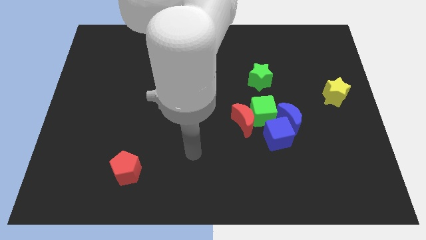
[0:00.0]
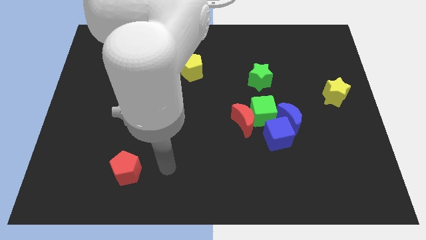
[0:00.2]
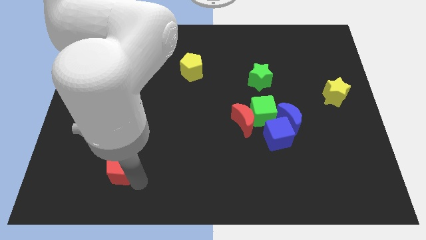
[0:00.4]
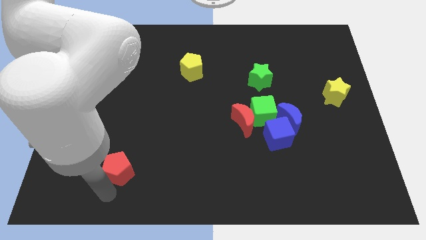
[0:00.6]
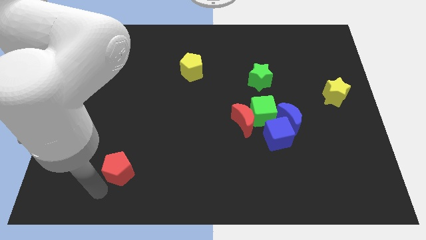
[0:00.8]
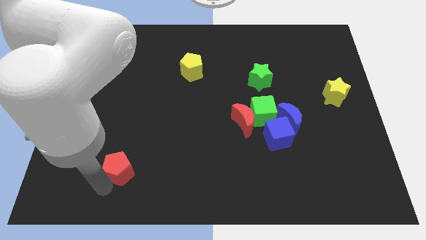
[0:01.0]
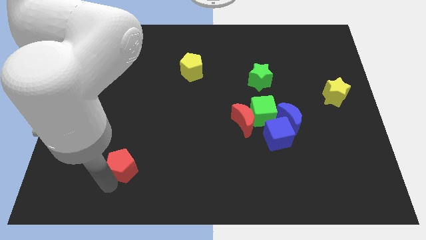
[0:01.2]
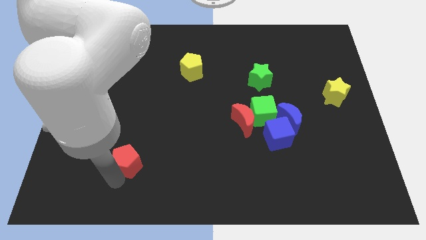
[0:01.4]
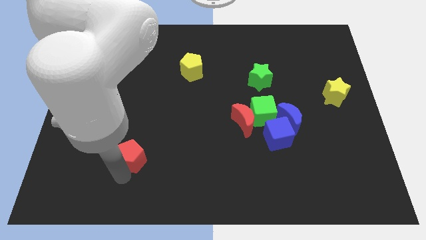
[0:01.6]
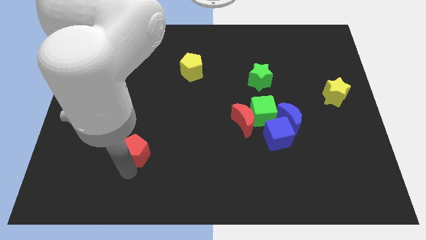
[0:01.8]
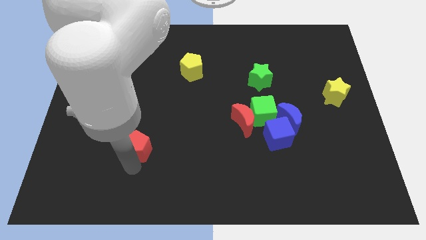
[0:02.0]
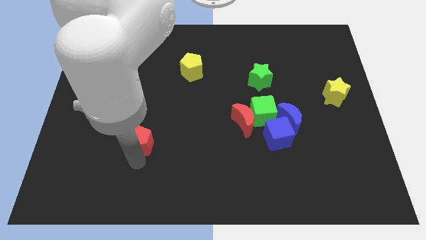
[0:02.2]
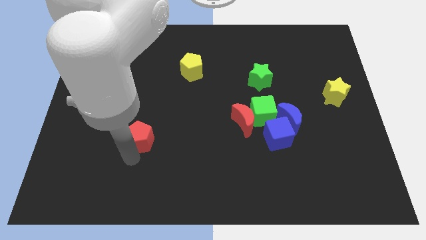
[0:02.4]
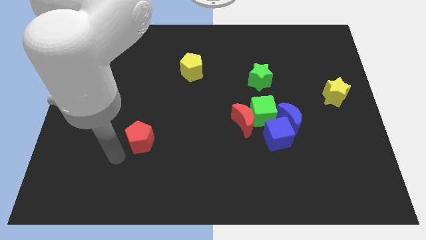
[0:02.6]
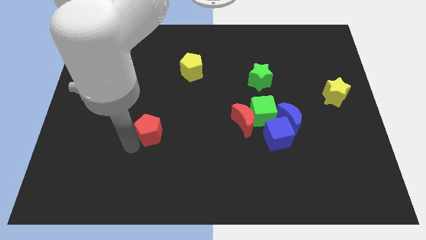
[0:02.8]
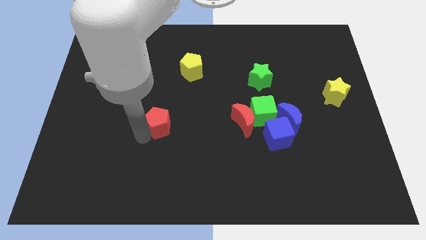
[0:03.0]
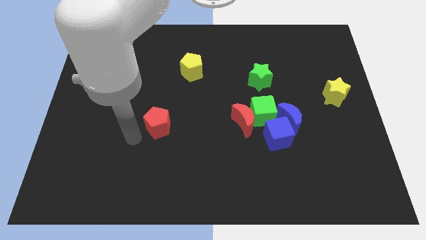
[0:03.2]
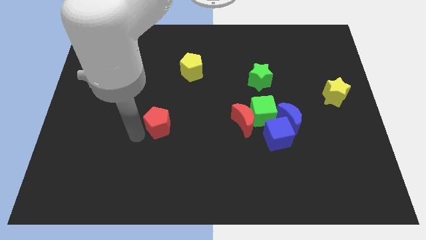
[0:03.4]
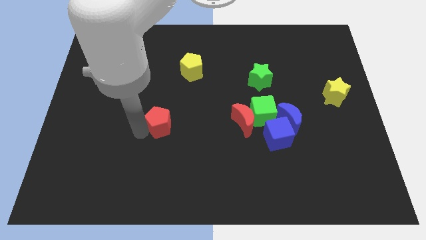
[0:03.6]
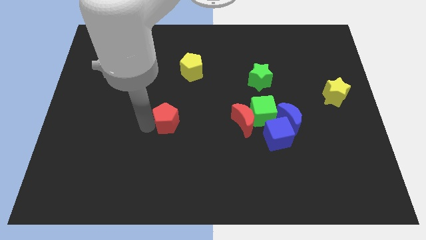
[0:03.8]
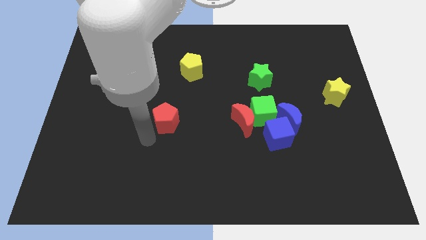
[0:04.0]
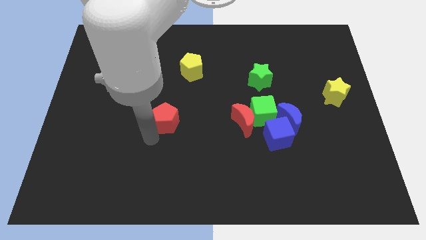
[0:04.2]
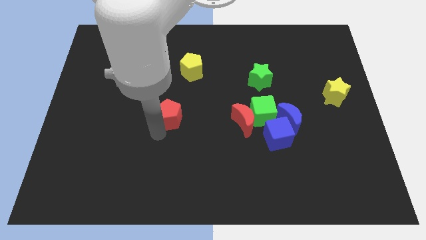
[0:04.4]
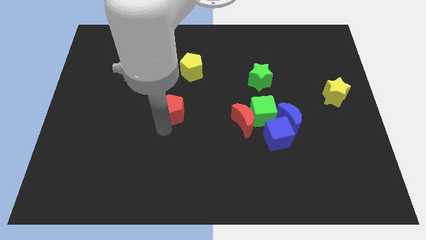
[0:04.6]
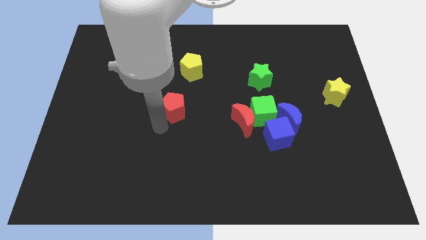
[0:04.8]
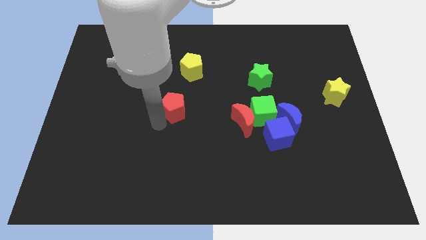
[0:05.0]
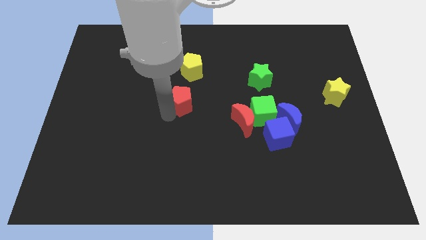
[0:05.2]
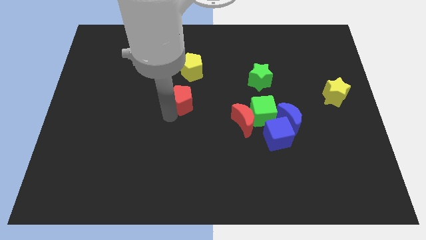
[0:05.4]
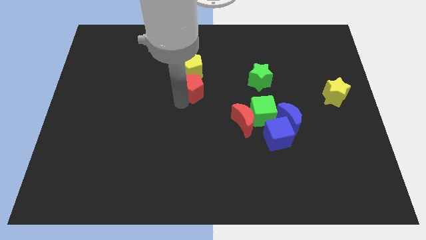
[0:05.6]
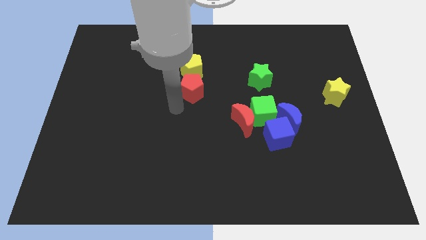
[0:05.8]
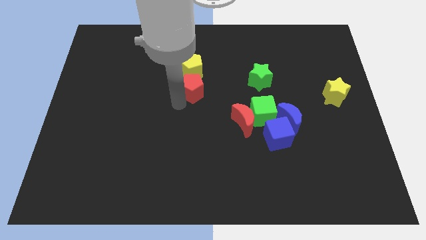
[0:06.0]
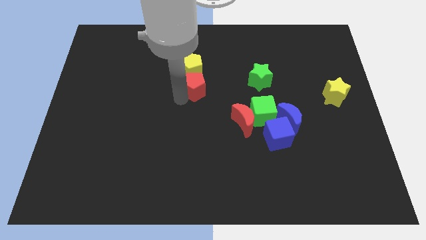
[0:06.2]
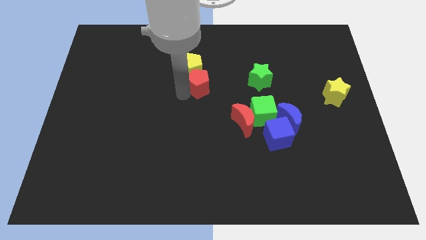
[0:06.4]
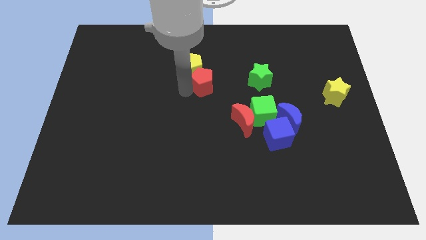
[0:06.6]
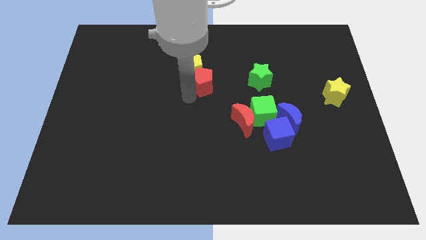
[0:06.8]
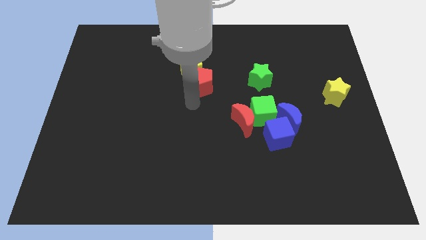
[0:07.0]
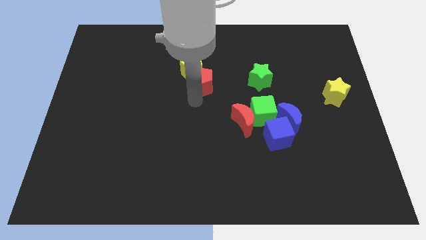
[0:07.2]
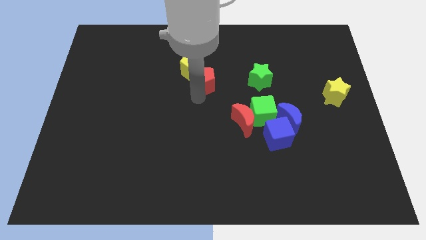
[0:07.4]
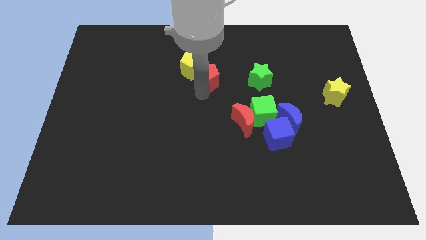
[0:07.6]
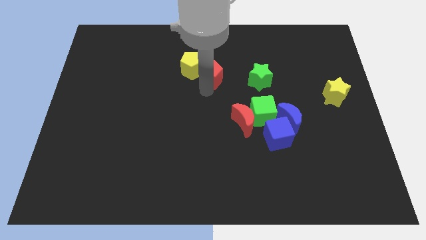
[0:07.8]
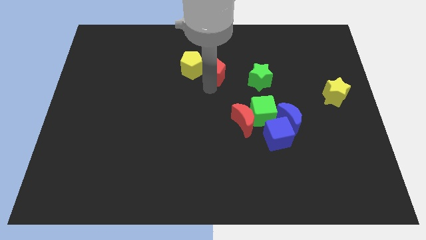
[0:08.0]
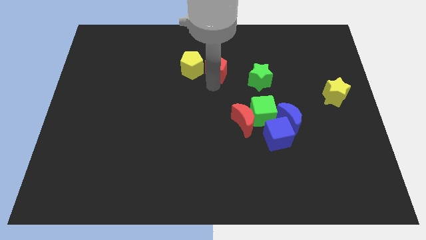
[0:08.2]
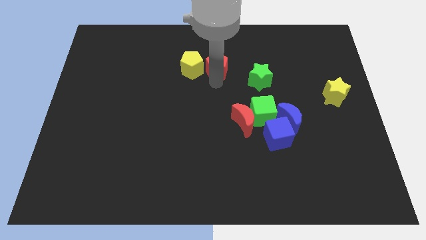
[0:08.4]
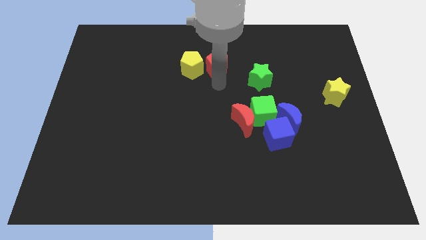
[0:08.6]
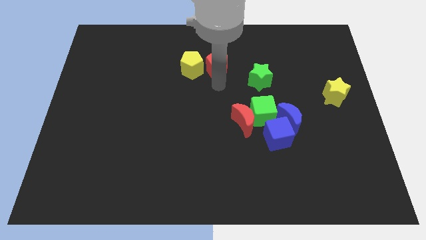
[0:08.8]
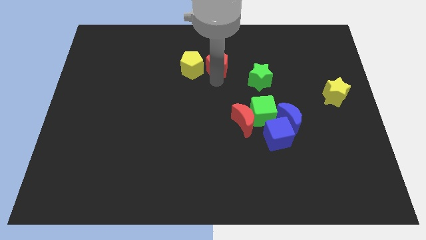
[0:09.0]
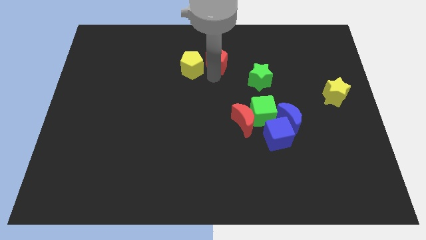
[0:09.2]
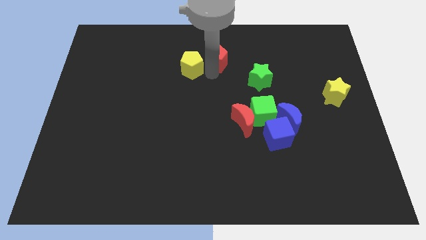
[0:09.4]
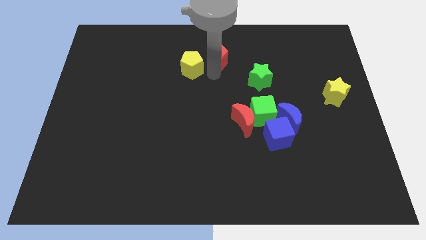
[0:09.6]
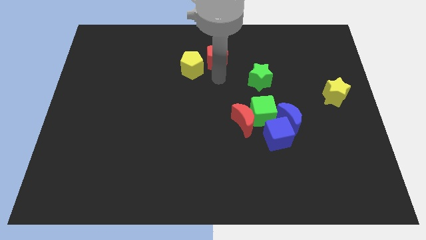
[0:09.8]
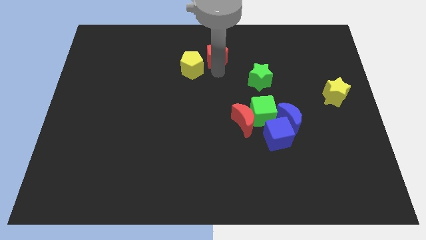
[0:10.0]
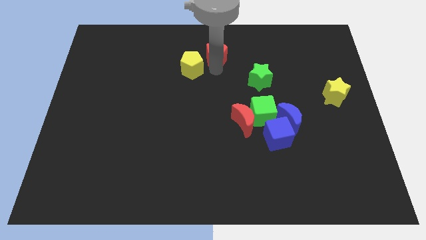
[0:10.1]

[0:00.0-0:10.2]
put the red pentagon to the towards your base

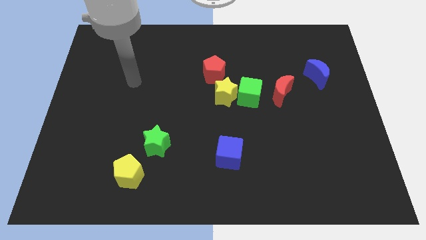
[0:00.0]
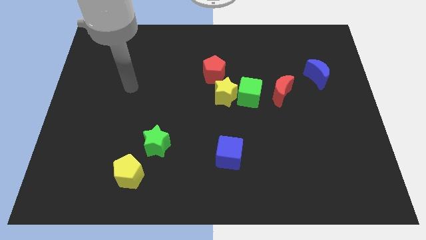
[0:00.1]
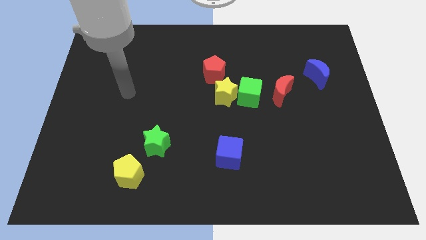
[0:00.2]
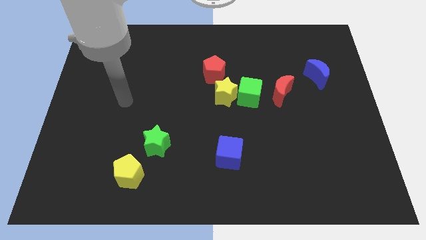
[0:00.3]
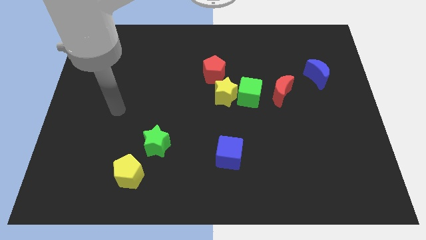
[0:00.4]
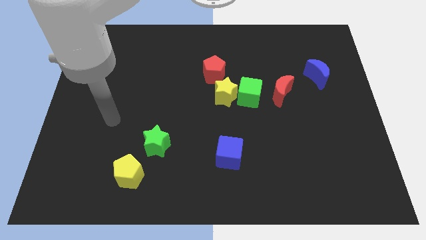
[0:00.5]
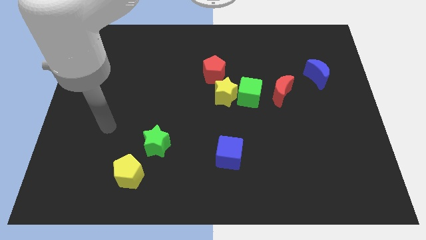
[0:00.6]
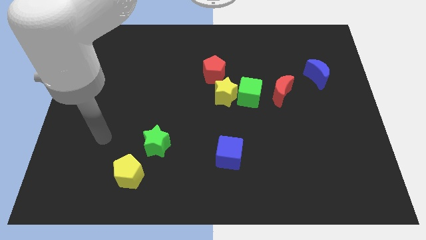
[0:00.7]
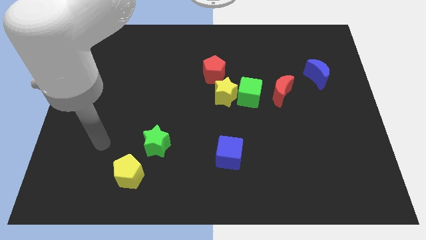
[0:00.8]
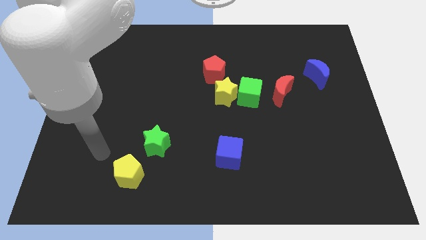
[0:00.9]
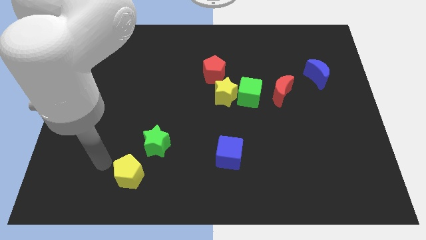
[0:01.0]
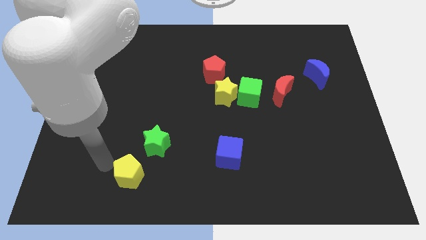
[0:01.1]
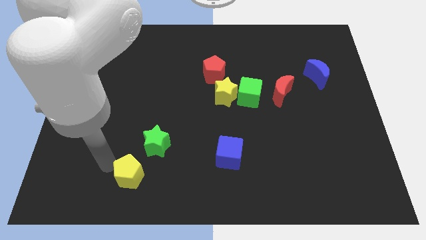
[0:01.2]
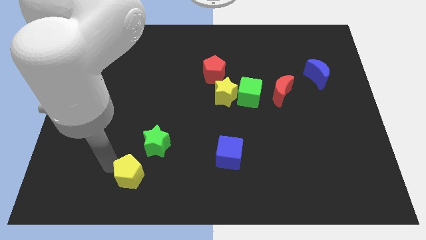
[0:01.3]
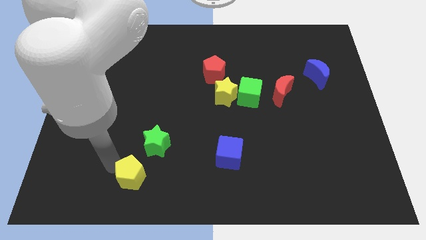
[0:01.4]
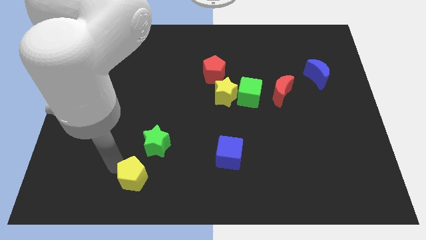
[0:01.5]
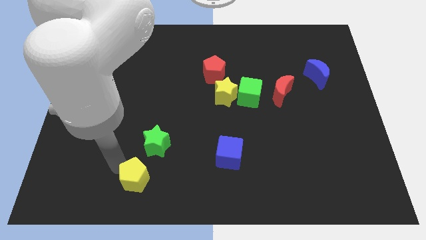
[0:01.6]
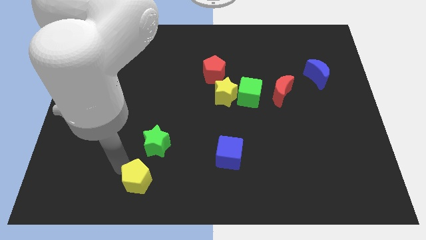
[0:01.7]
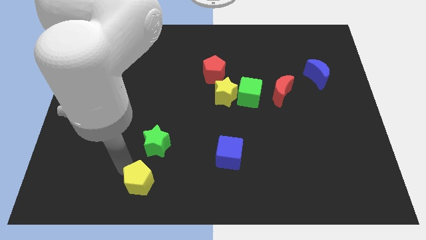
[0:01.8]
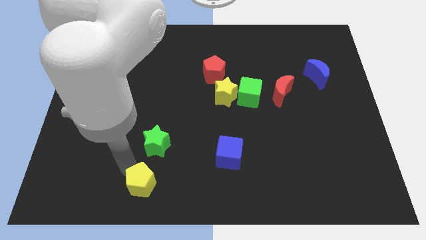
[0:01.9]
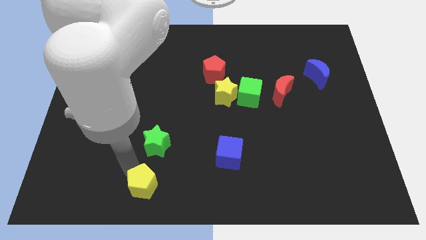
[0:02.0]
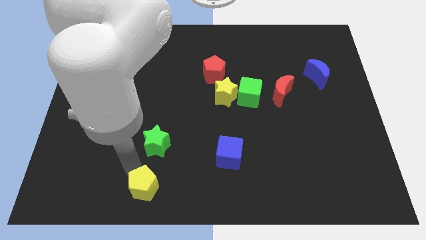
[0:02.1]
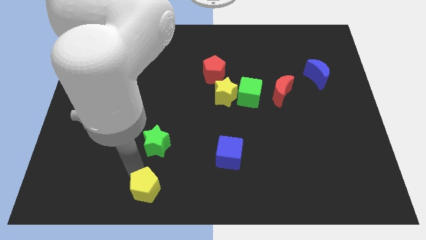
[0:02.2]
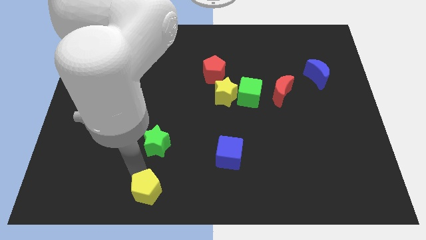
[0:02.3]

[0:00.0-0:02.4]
slide the yellow pentagon to the bottom
